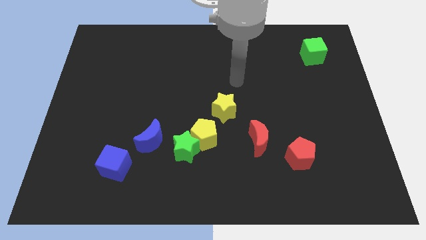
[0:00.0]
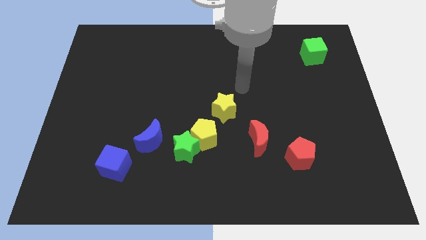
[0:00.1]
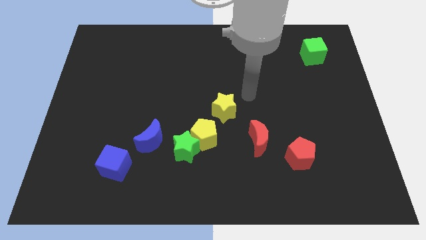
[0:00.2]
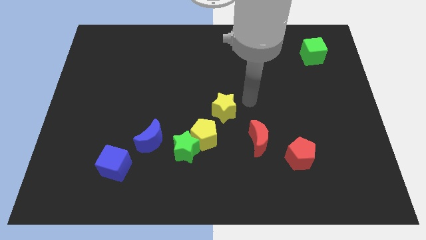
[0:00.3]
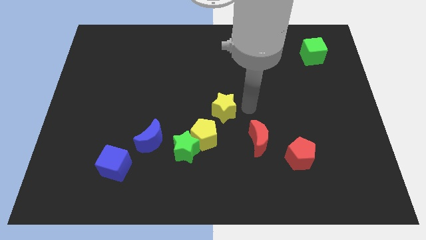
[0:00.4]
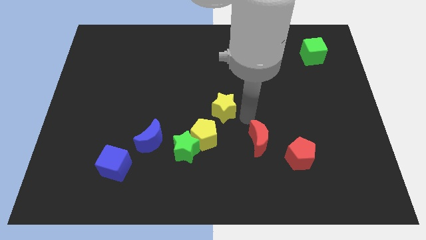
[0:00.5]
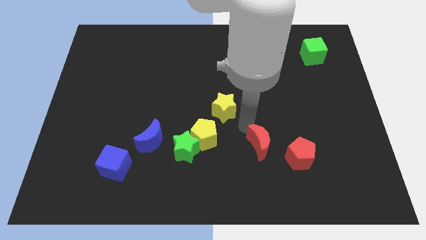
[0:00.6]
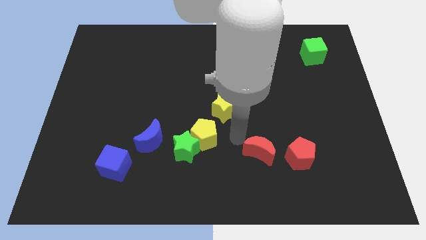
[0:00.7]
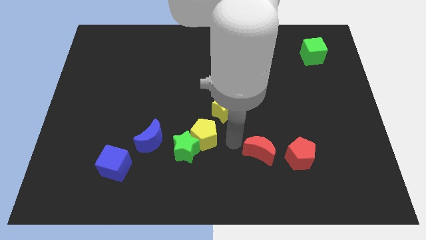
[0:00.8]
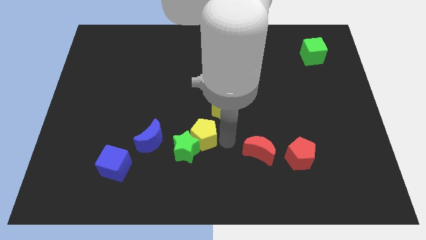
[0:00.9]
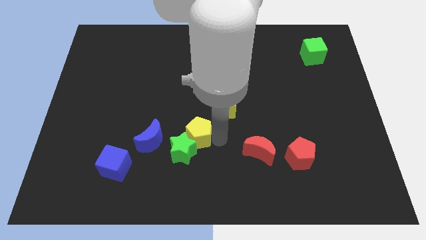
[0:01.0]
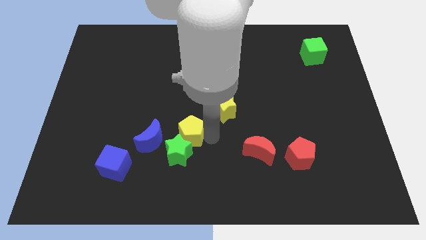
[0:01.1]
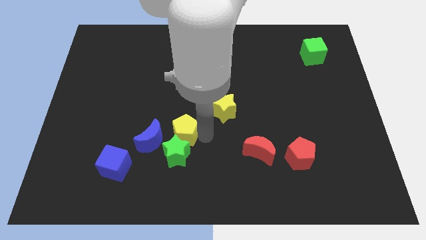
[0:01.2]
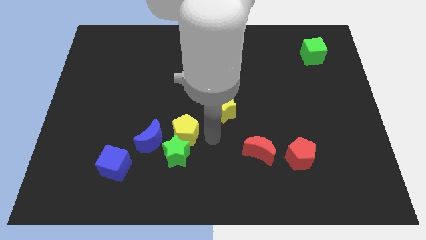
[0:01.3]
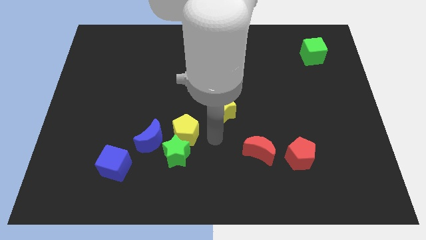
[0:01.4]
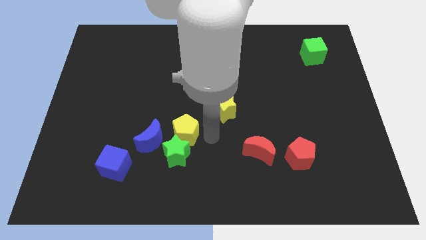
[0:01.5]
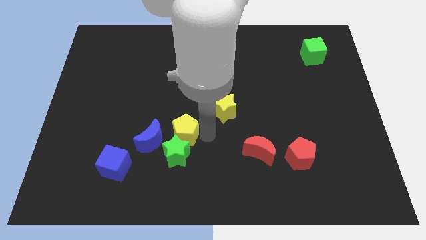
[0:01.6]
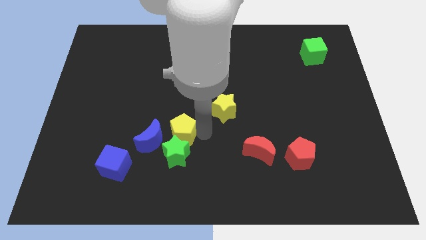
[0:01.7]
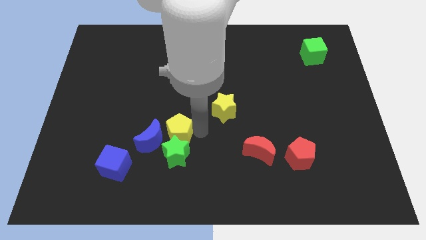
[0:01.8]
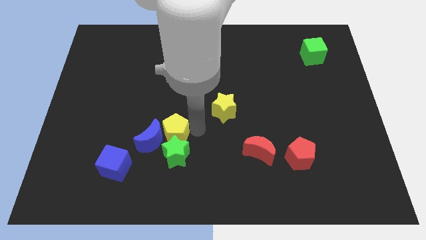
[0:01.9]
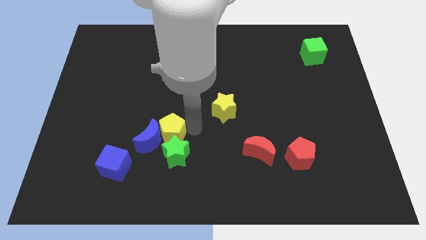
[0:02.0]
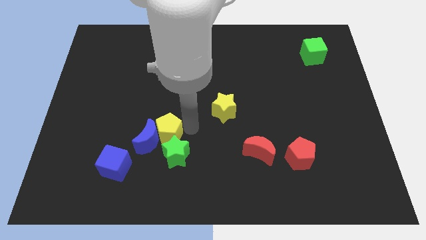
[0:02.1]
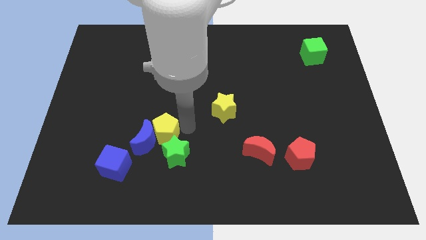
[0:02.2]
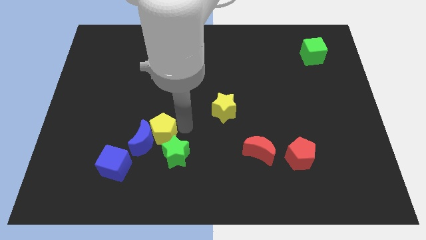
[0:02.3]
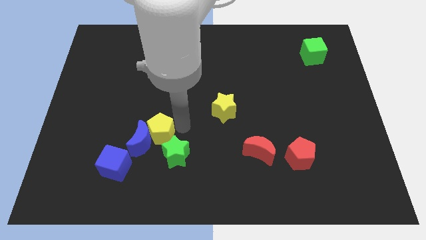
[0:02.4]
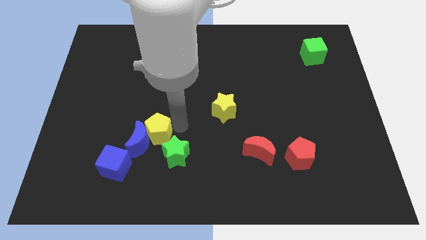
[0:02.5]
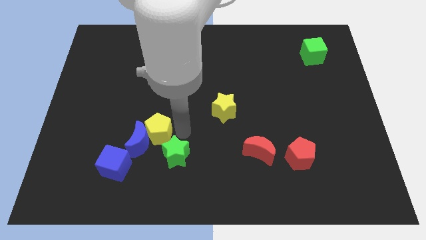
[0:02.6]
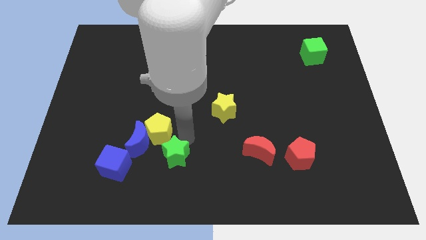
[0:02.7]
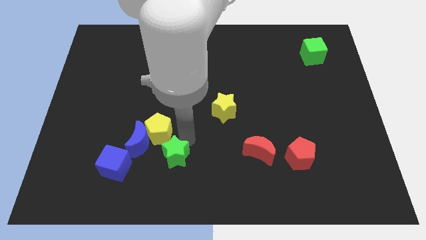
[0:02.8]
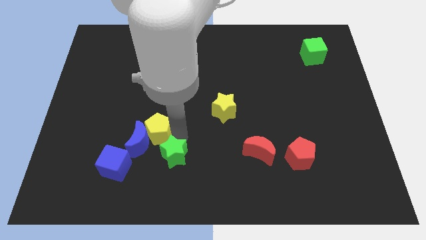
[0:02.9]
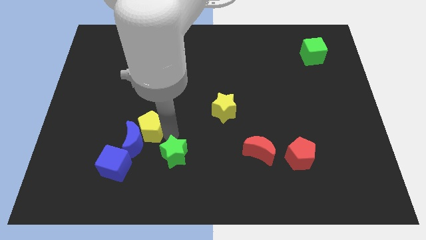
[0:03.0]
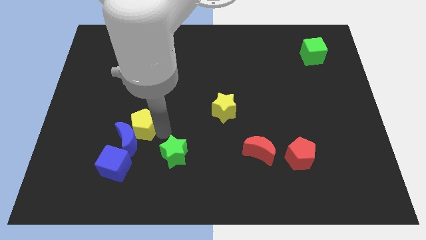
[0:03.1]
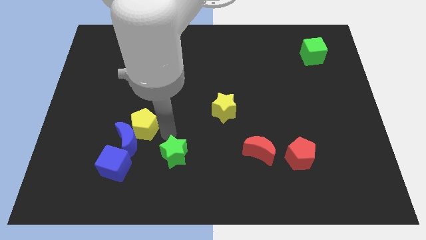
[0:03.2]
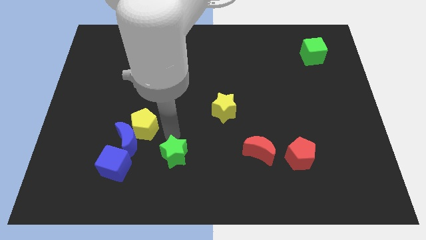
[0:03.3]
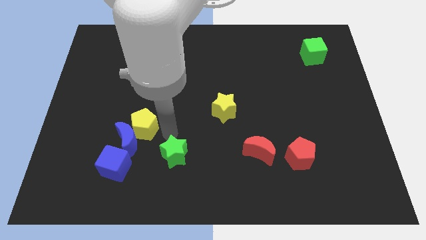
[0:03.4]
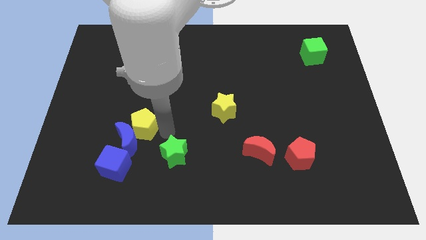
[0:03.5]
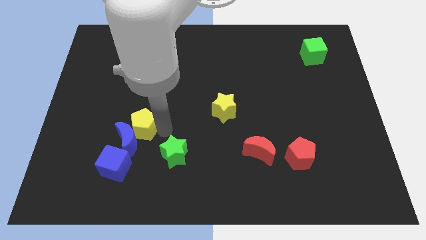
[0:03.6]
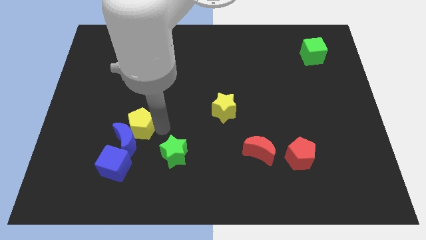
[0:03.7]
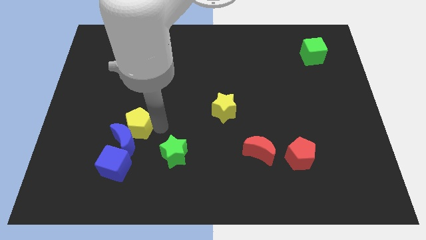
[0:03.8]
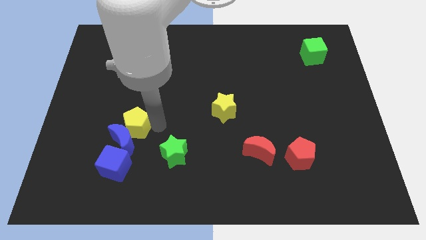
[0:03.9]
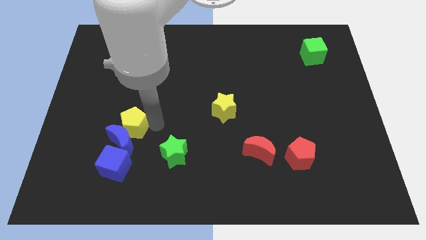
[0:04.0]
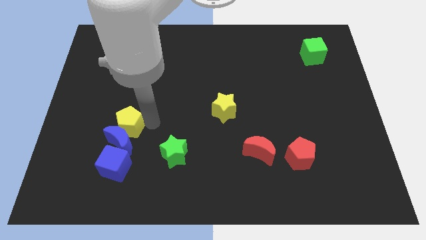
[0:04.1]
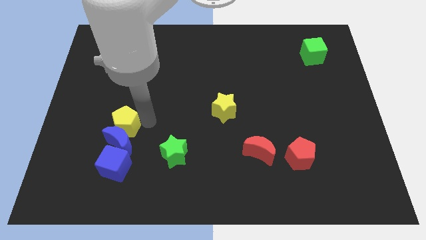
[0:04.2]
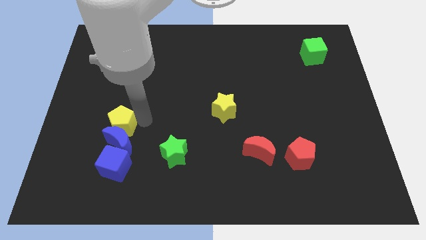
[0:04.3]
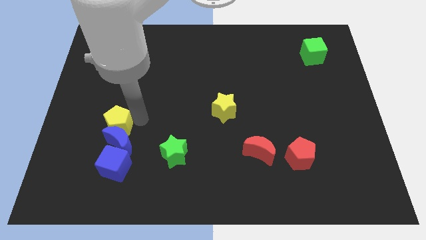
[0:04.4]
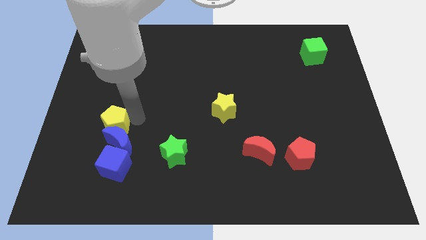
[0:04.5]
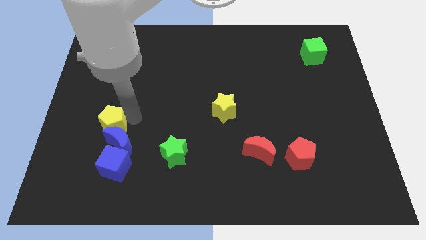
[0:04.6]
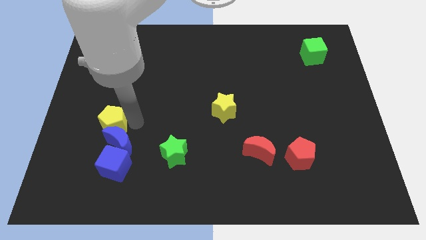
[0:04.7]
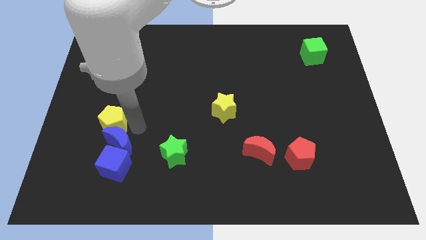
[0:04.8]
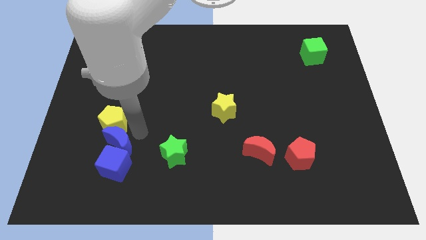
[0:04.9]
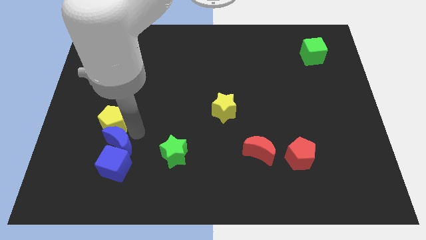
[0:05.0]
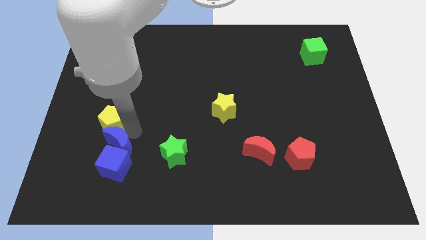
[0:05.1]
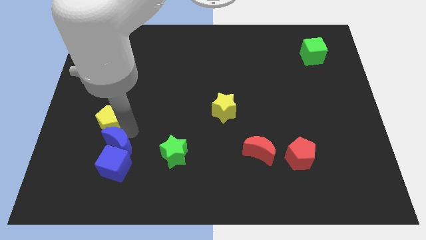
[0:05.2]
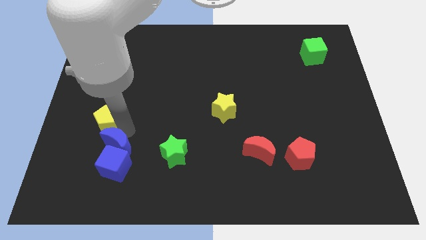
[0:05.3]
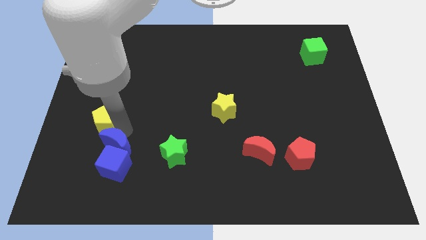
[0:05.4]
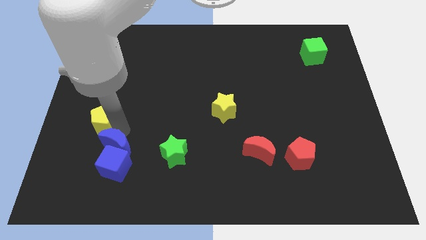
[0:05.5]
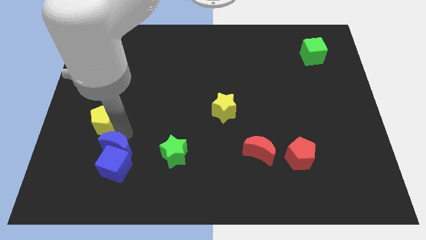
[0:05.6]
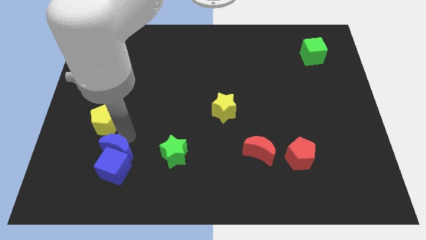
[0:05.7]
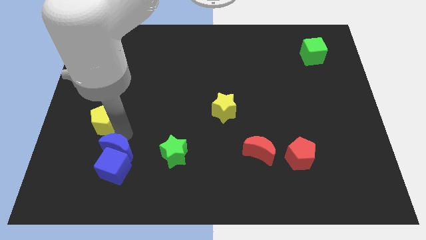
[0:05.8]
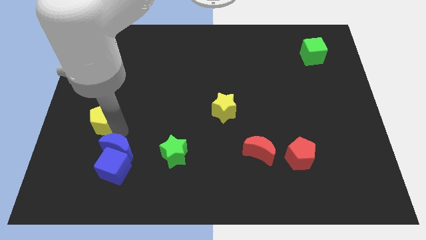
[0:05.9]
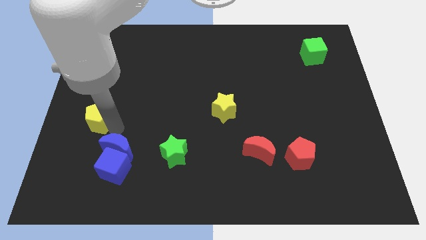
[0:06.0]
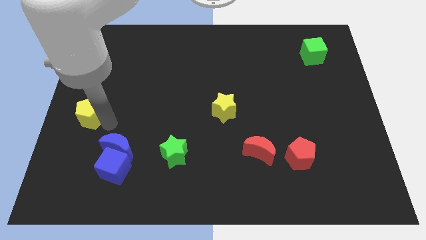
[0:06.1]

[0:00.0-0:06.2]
push the yellow pentagon to the left side of the board

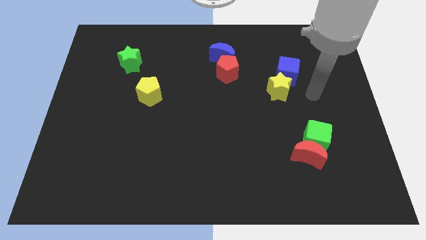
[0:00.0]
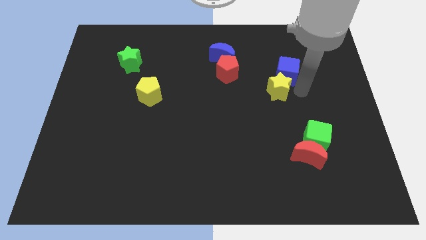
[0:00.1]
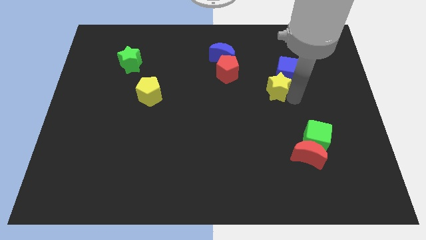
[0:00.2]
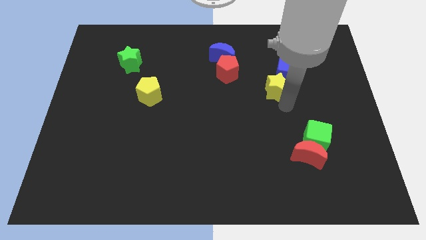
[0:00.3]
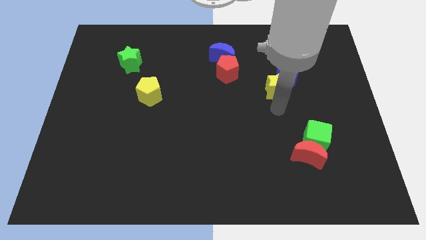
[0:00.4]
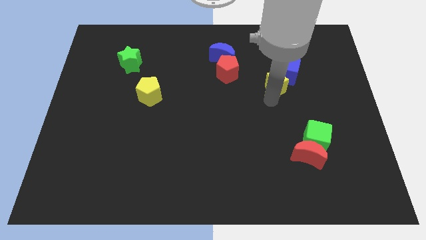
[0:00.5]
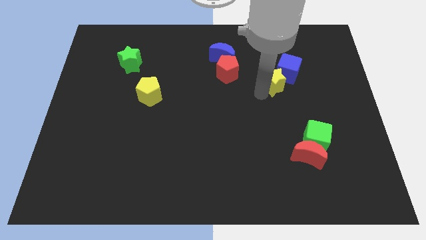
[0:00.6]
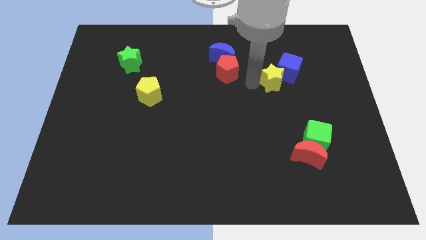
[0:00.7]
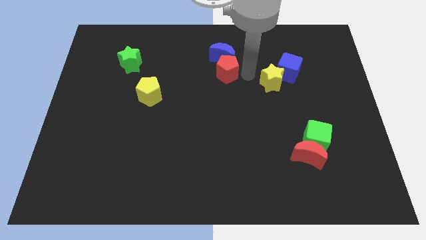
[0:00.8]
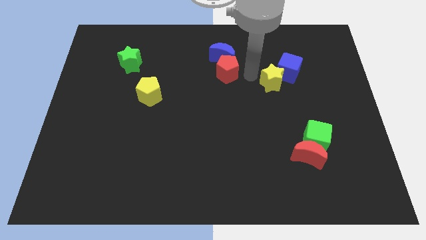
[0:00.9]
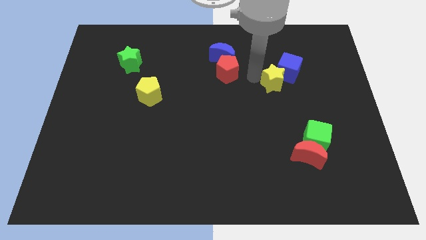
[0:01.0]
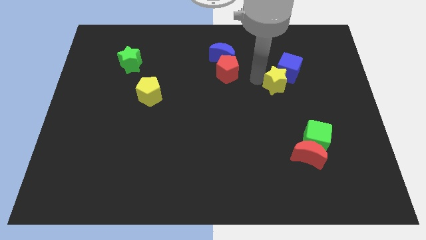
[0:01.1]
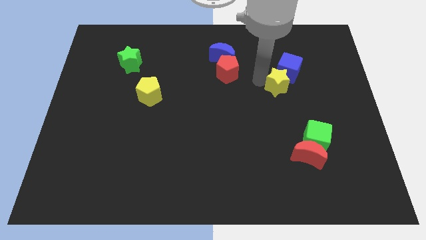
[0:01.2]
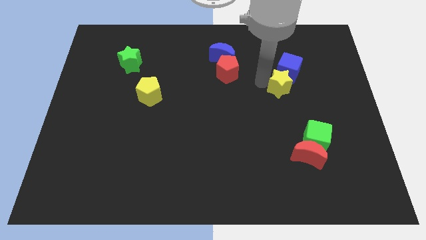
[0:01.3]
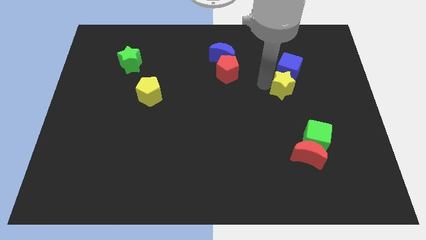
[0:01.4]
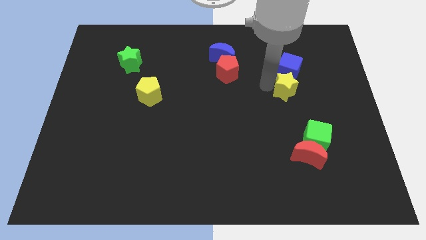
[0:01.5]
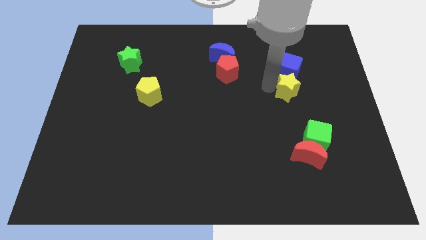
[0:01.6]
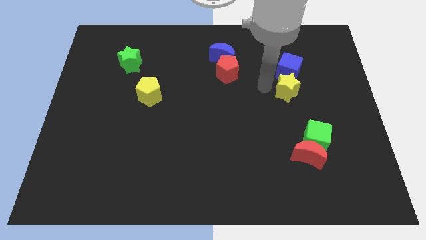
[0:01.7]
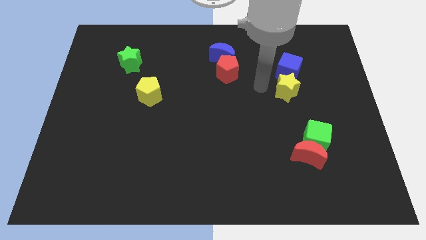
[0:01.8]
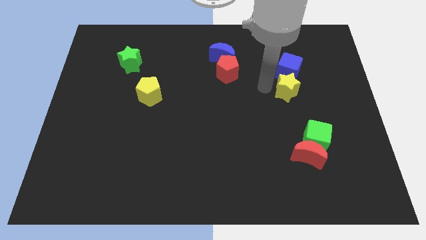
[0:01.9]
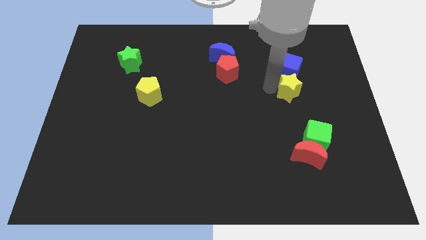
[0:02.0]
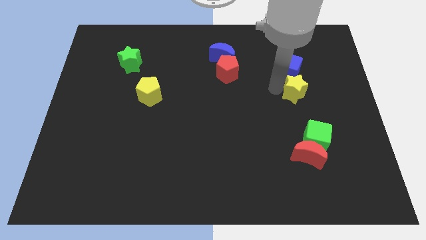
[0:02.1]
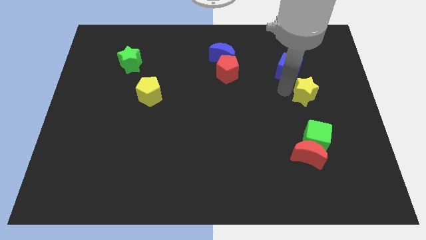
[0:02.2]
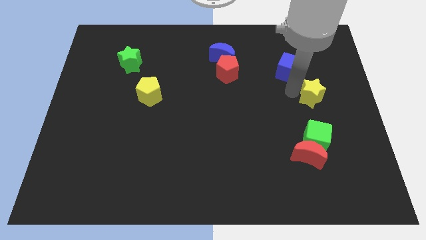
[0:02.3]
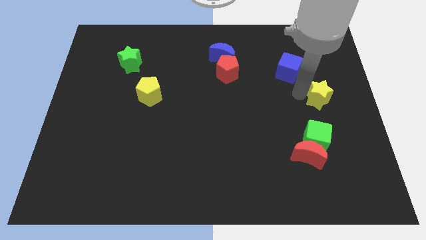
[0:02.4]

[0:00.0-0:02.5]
push the yellow star to the center right
